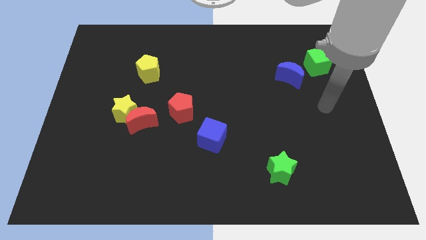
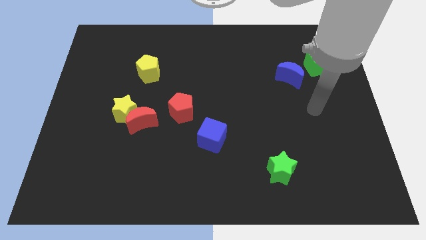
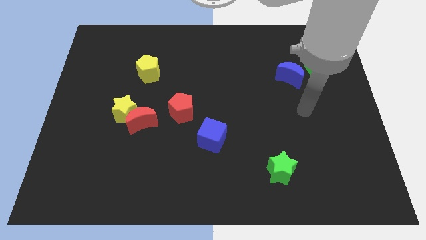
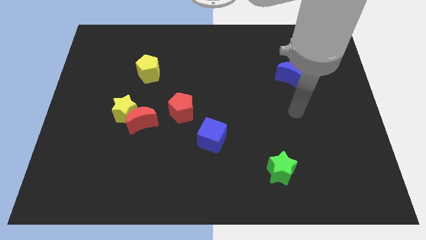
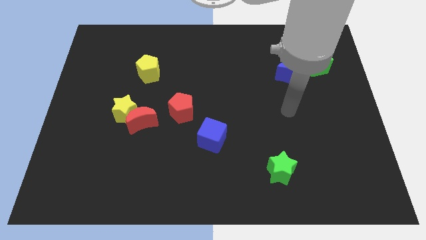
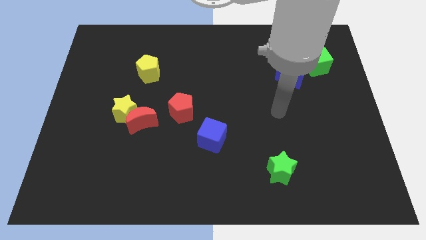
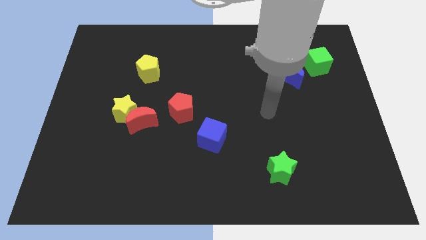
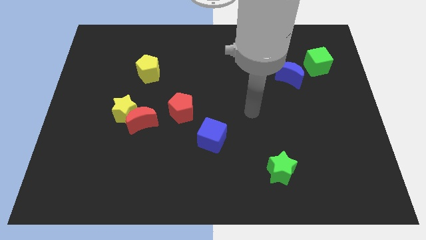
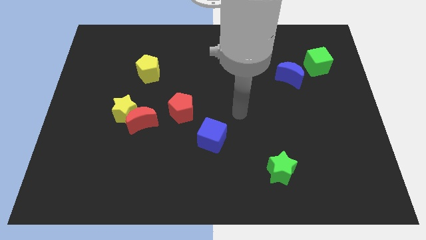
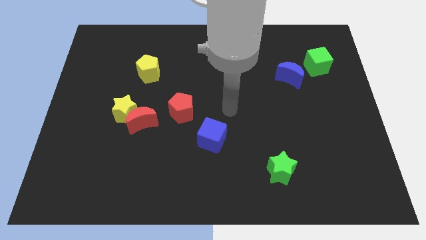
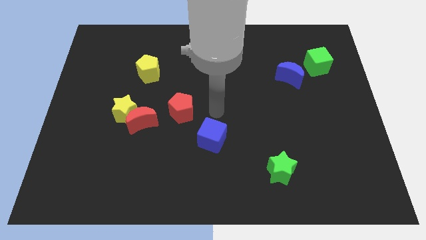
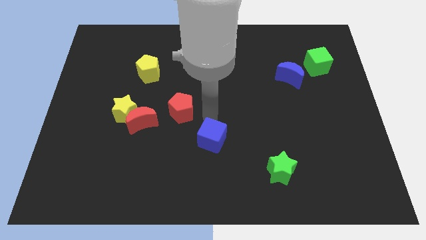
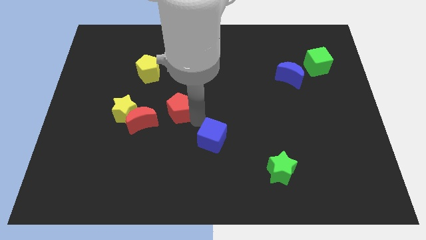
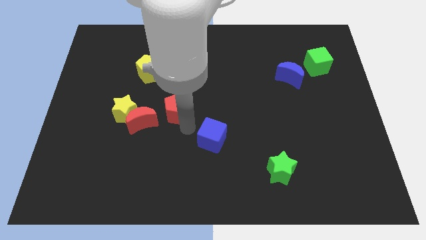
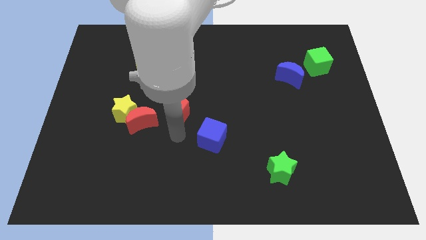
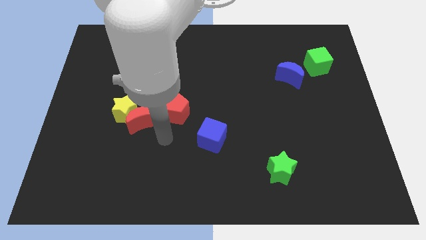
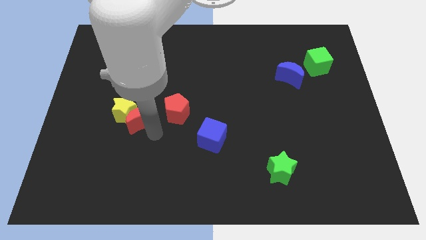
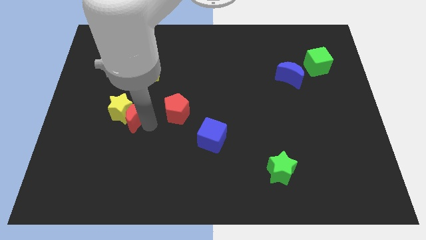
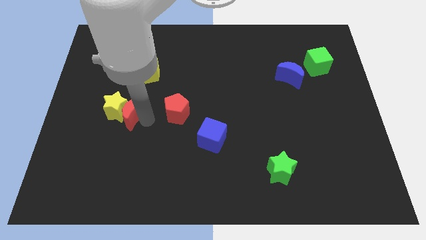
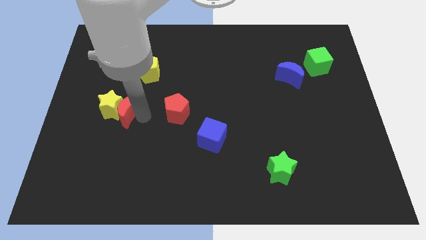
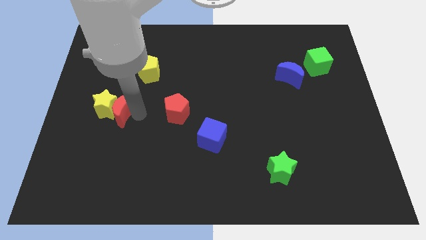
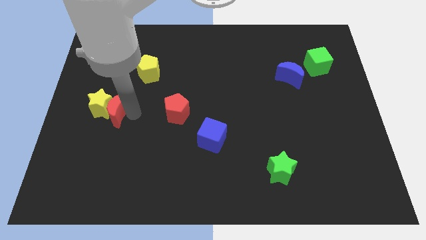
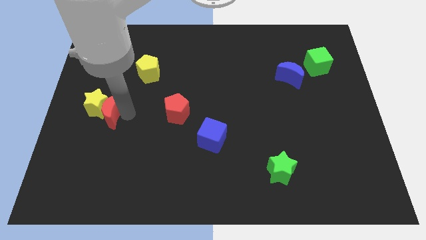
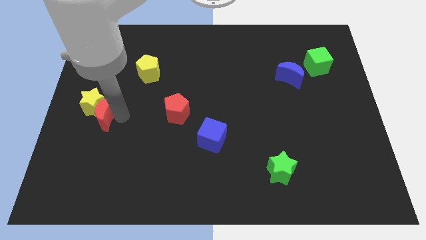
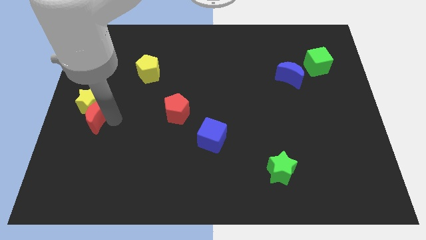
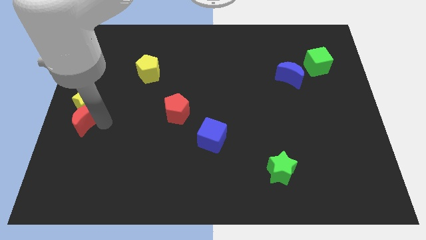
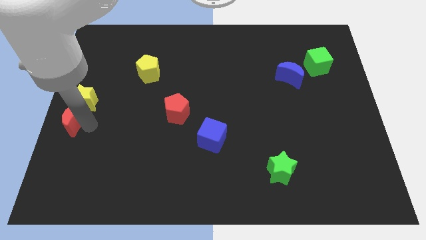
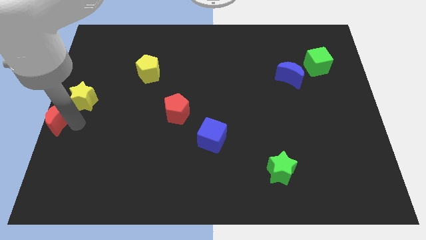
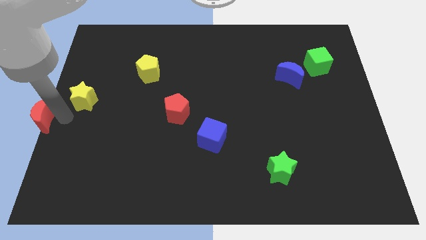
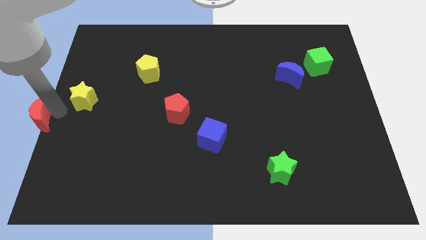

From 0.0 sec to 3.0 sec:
pull the yellow star apart from the red moon

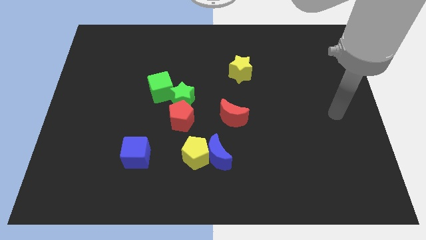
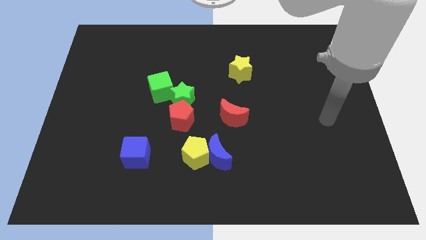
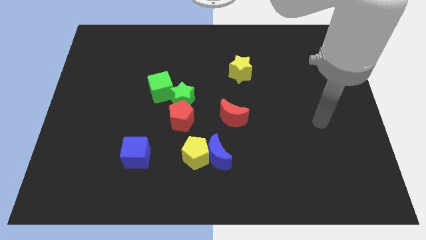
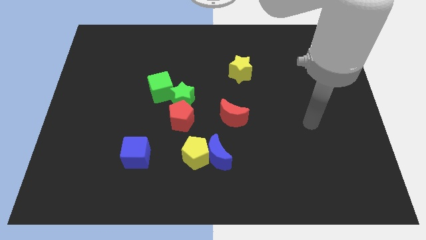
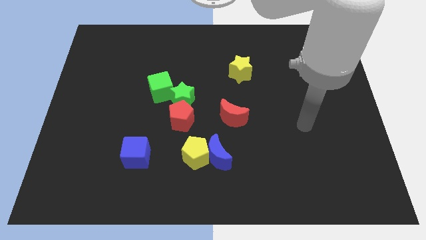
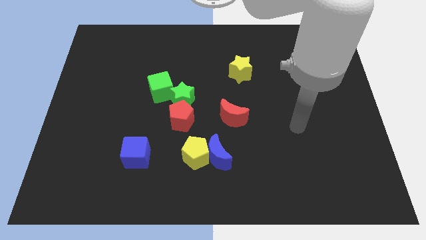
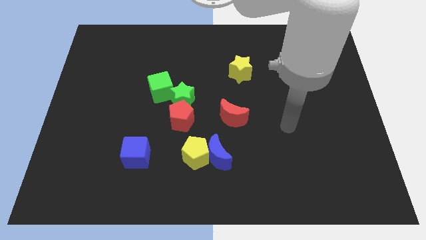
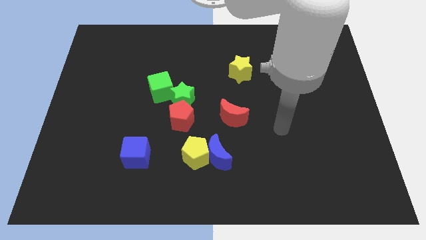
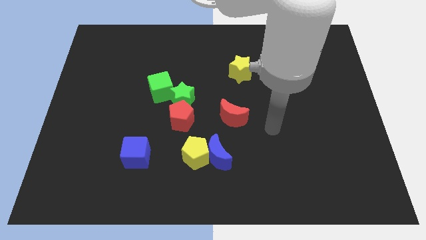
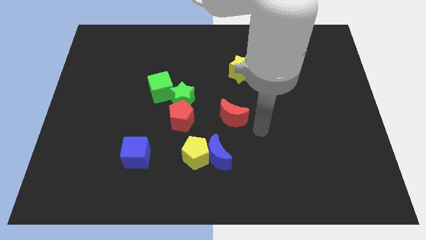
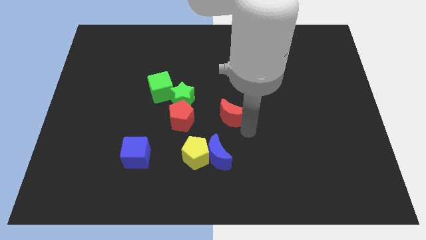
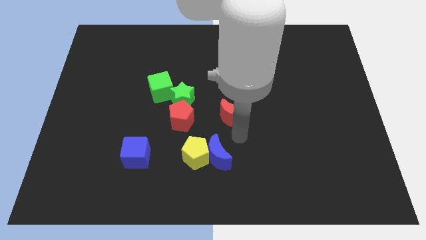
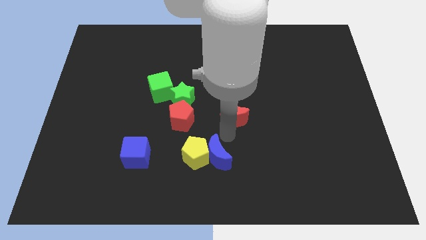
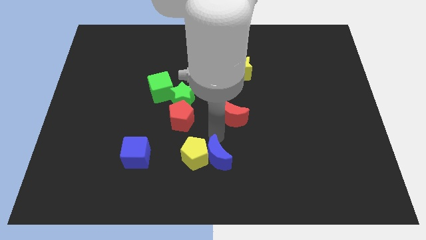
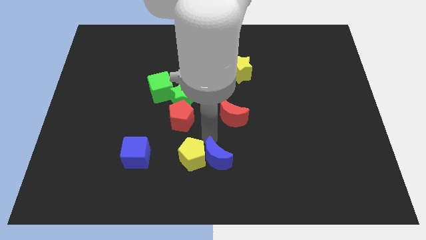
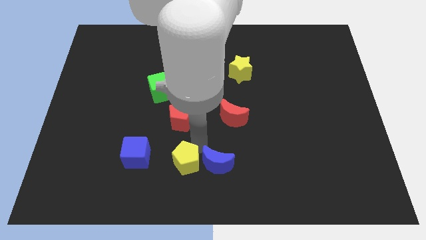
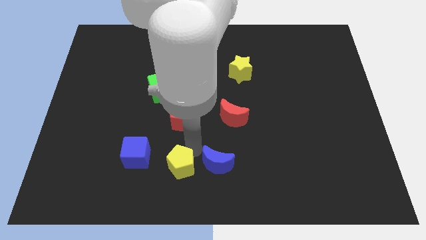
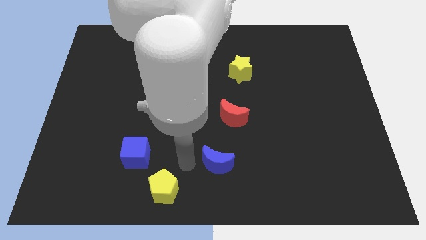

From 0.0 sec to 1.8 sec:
move the blue moon away from the yellow pentagon

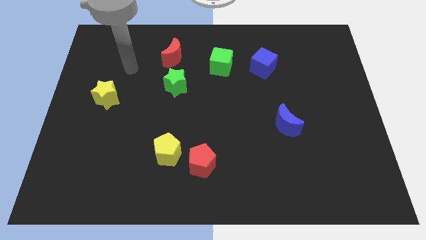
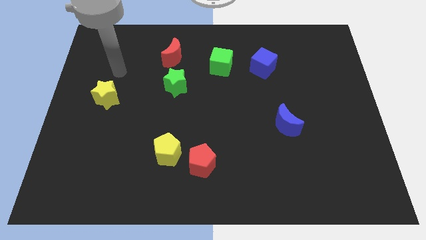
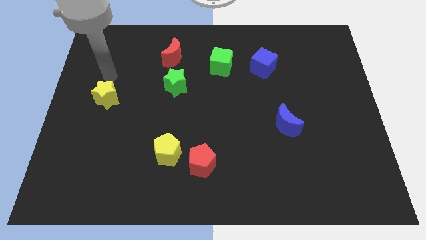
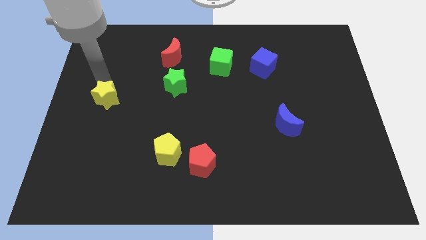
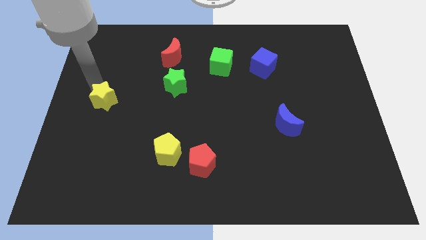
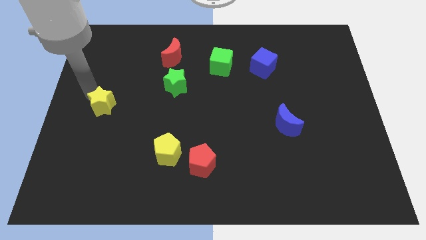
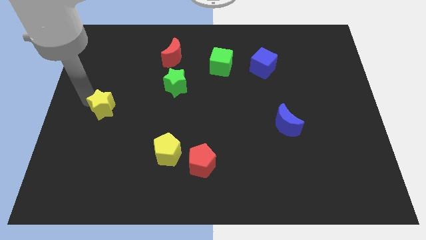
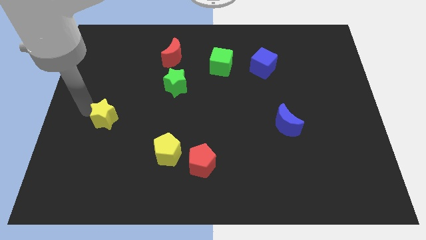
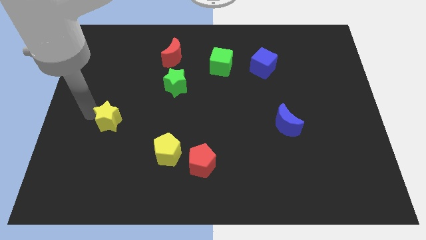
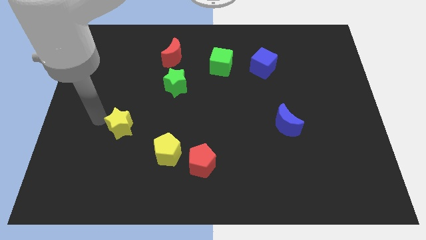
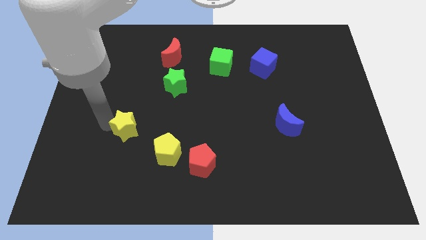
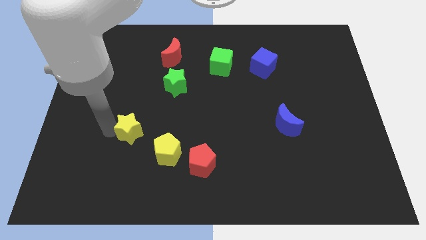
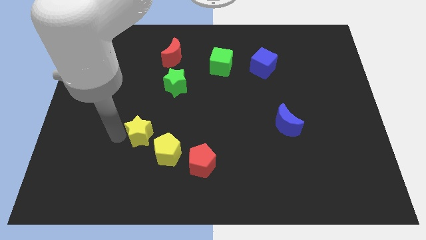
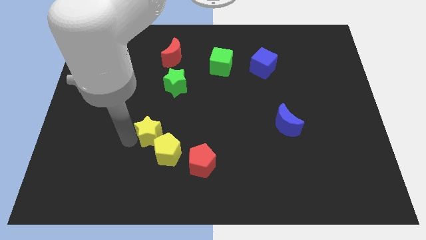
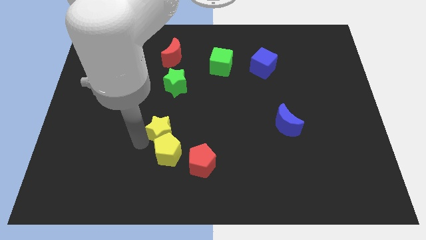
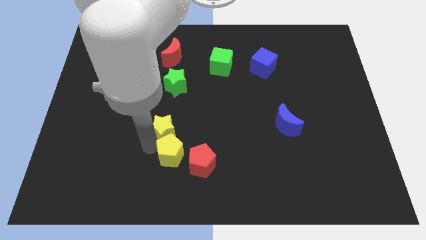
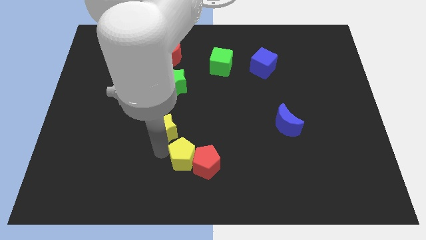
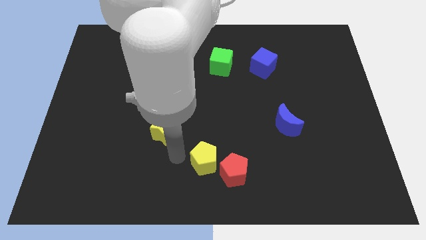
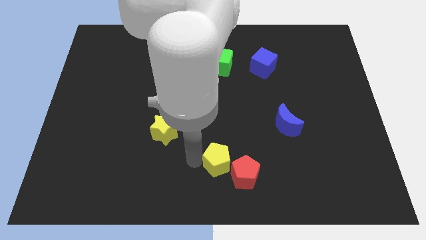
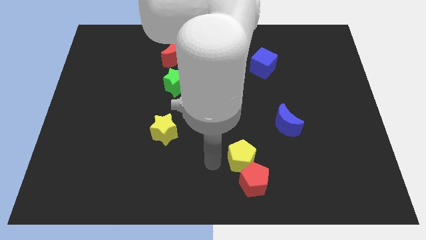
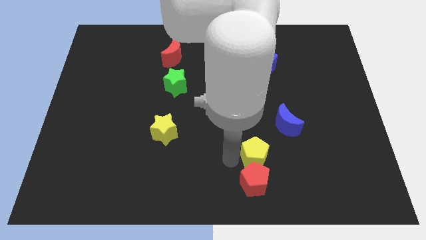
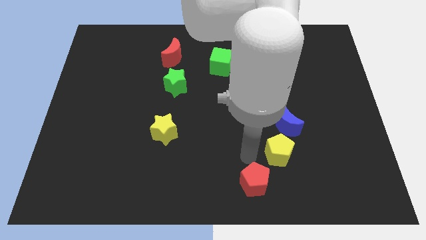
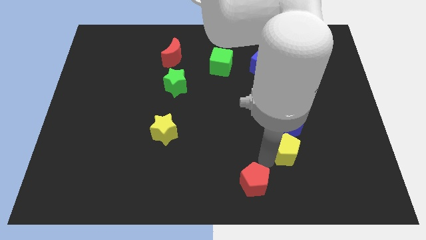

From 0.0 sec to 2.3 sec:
pull the red pentagon apart from the yellow pentagon

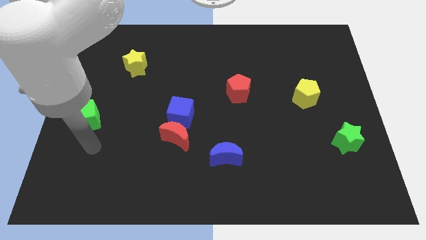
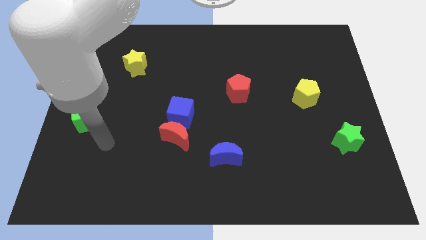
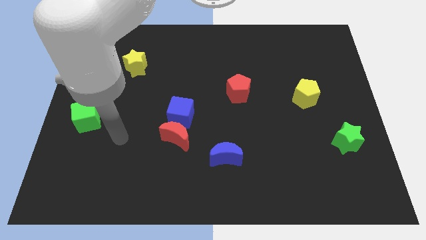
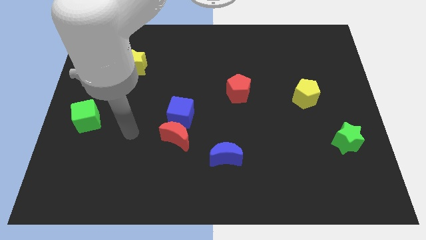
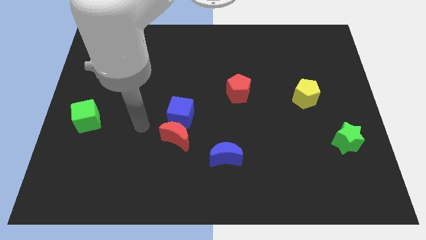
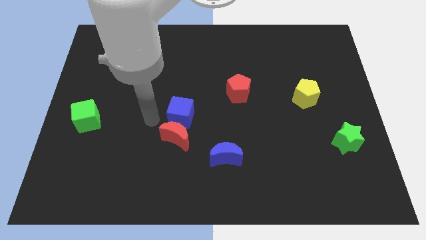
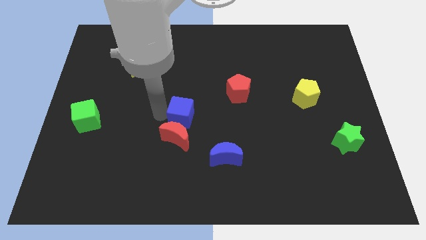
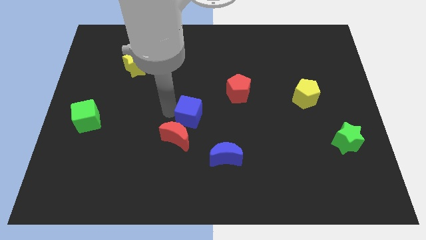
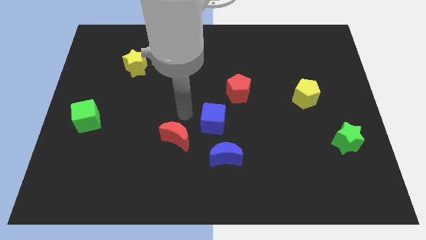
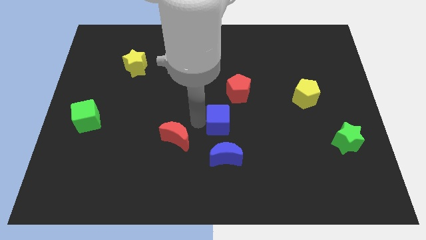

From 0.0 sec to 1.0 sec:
separate the red moon from the blue cube

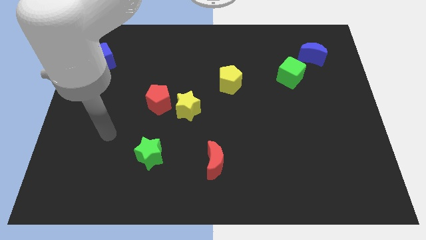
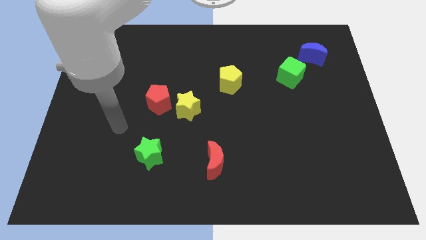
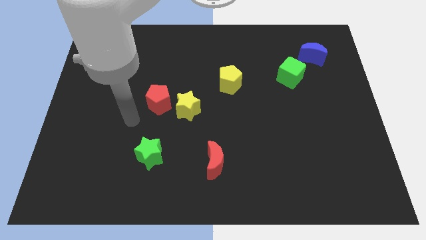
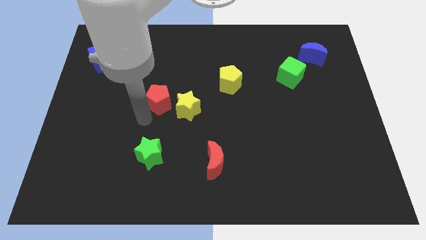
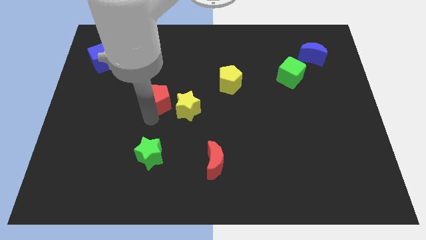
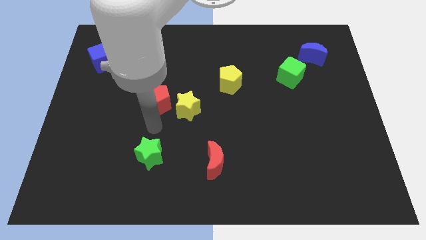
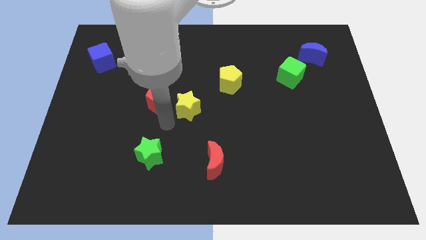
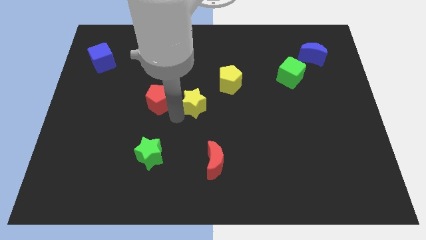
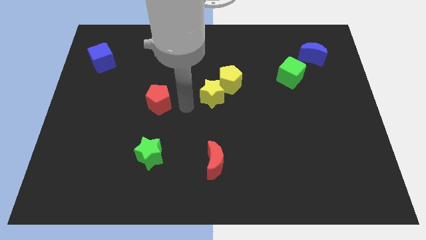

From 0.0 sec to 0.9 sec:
separate the red pentagon from the yellow star

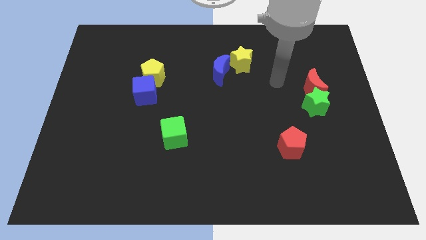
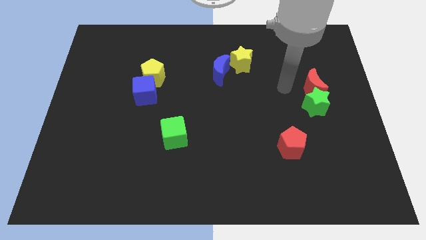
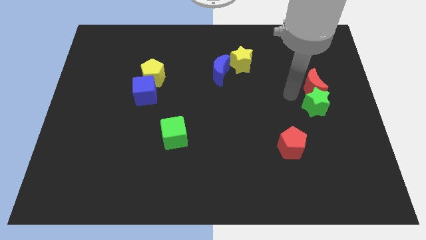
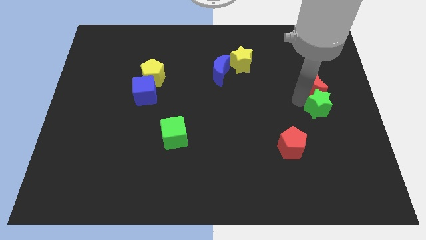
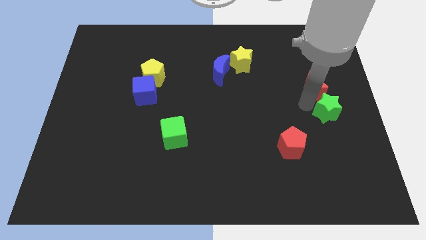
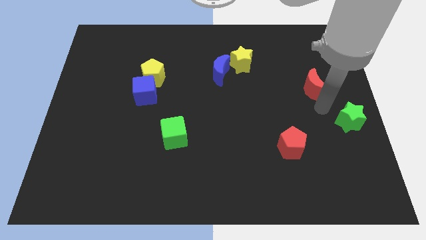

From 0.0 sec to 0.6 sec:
move the red moon away from the green star
